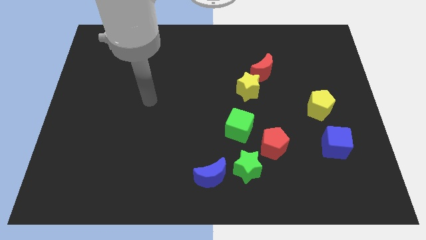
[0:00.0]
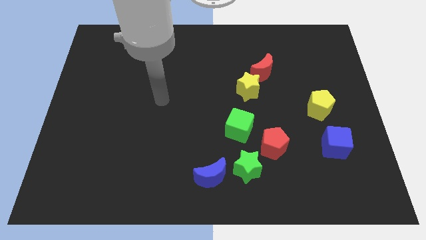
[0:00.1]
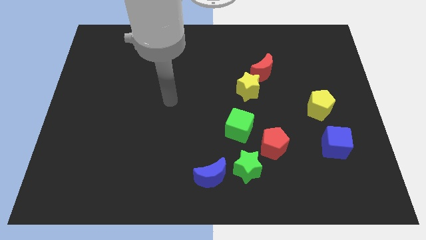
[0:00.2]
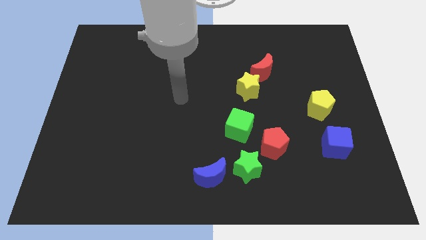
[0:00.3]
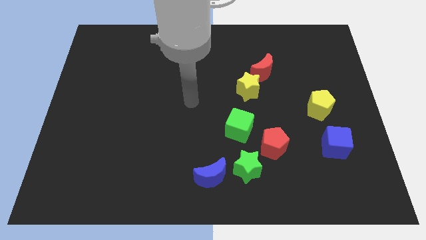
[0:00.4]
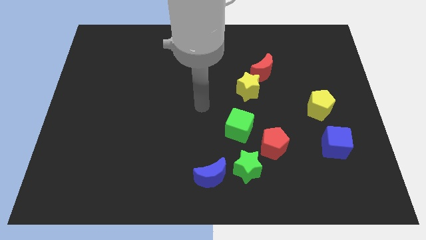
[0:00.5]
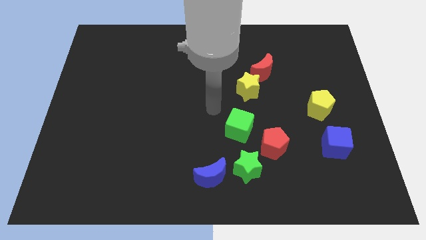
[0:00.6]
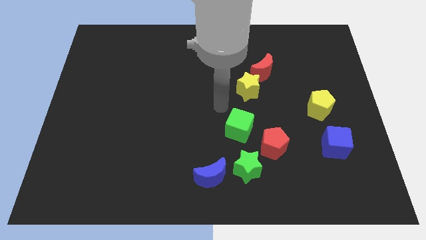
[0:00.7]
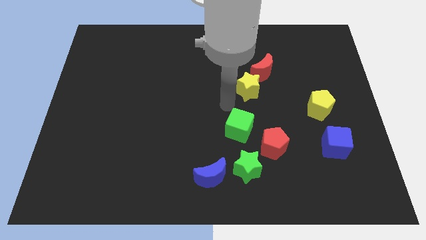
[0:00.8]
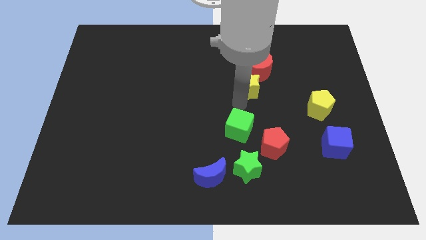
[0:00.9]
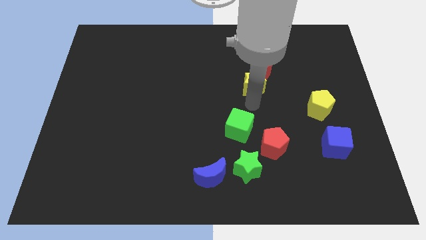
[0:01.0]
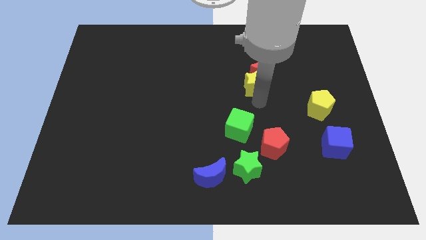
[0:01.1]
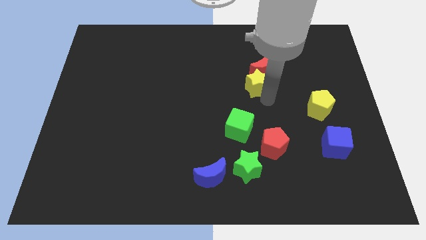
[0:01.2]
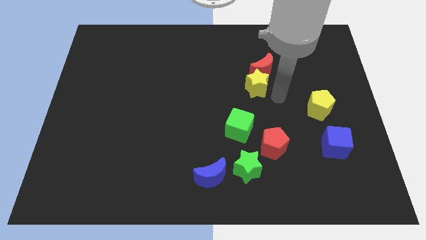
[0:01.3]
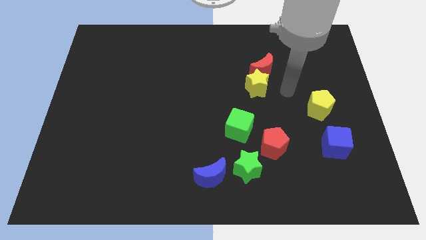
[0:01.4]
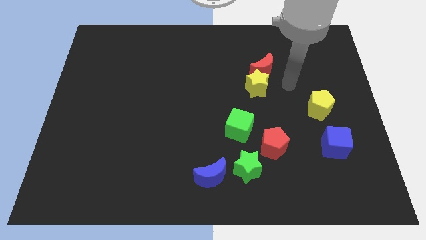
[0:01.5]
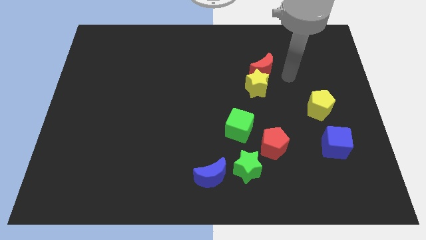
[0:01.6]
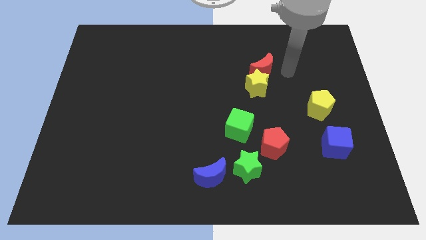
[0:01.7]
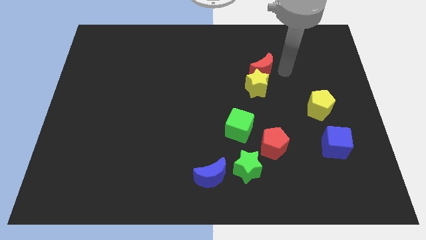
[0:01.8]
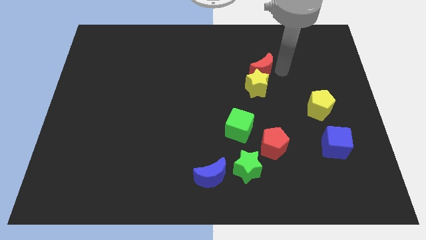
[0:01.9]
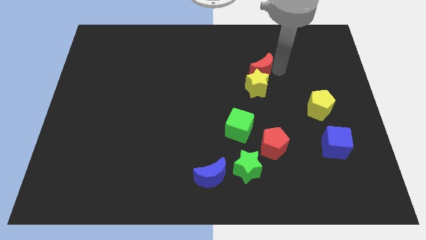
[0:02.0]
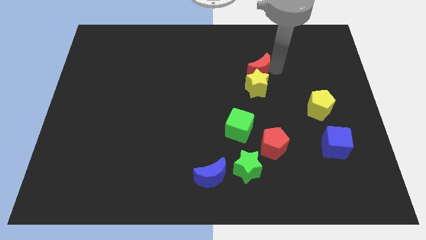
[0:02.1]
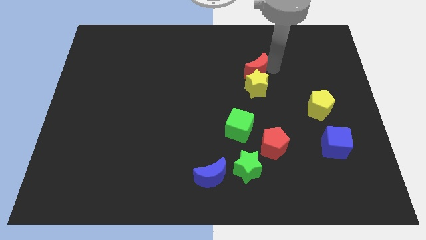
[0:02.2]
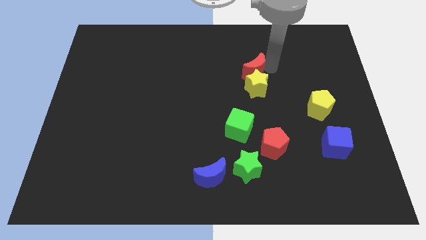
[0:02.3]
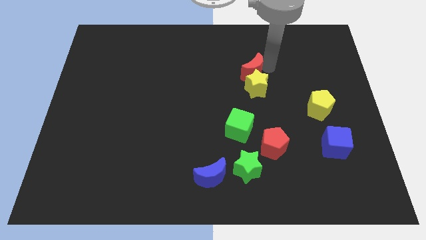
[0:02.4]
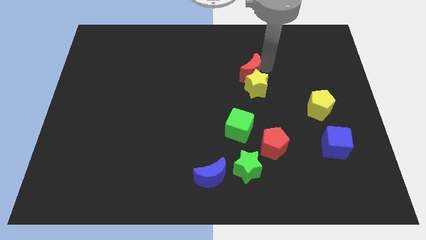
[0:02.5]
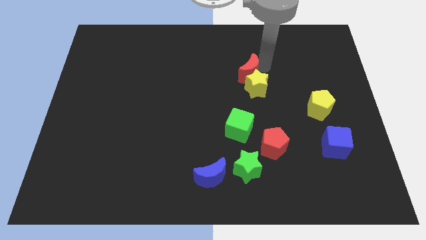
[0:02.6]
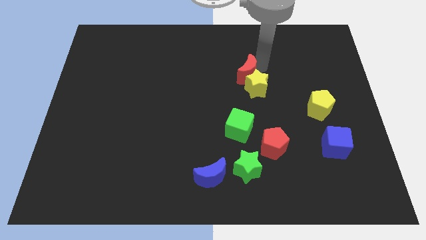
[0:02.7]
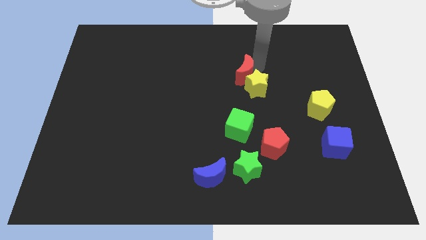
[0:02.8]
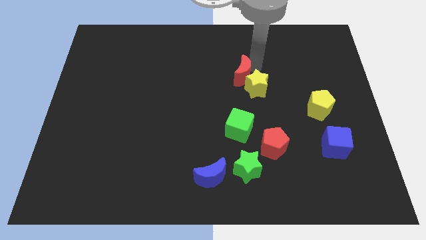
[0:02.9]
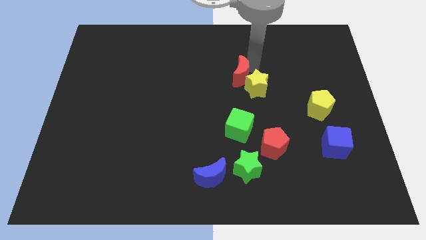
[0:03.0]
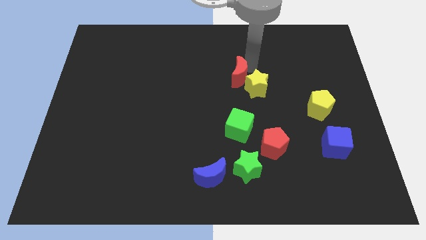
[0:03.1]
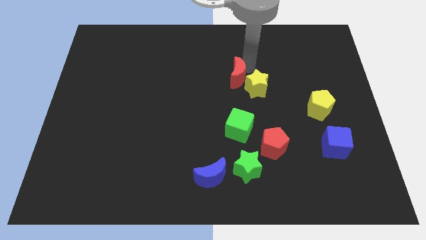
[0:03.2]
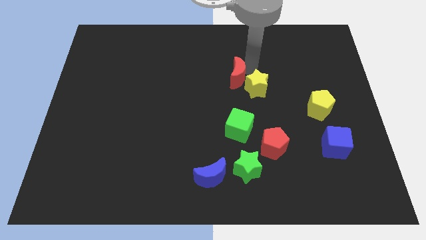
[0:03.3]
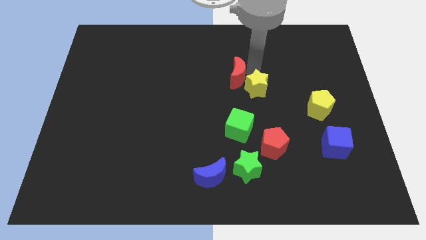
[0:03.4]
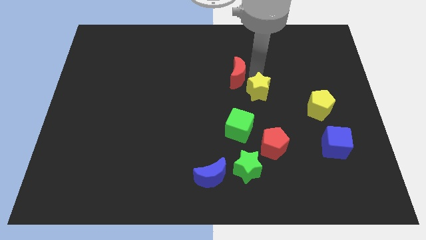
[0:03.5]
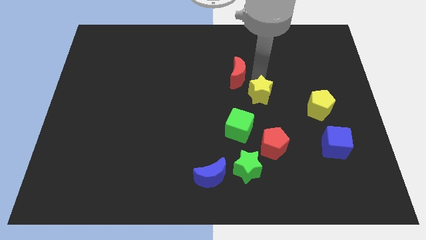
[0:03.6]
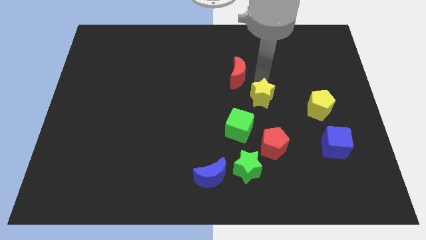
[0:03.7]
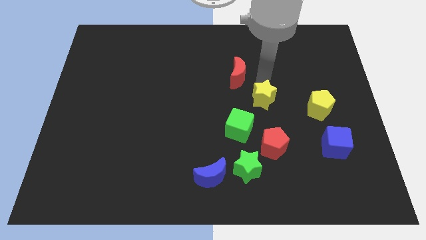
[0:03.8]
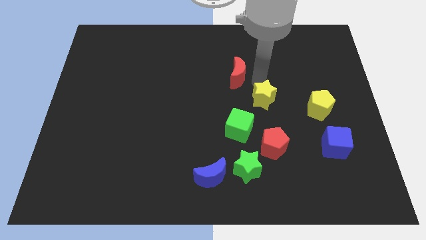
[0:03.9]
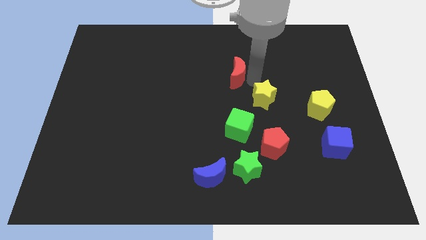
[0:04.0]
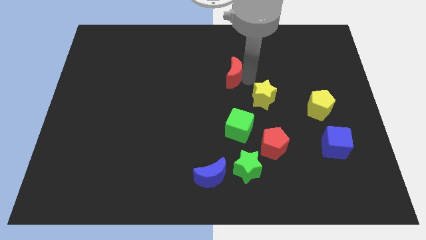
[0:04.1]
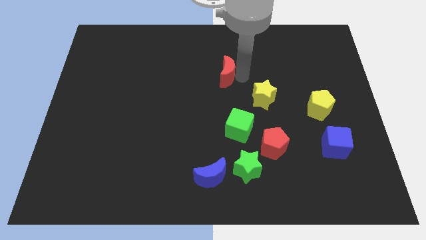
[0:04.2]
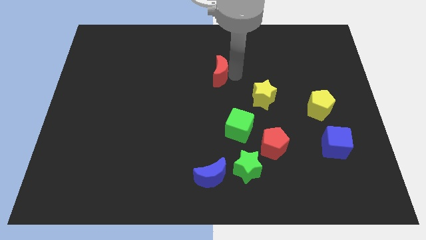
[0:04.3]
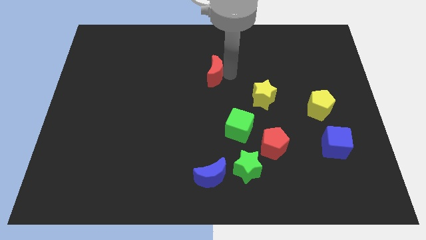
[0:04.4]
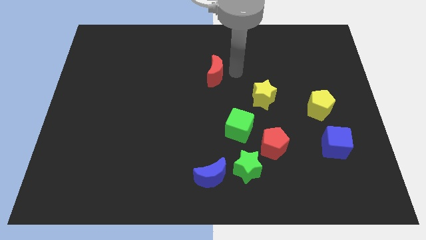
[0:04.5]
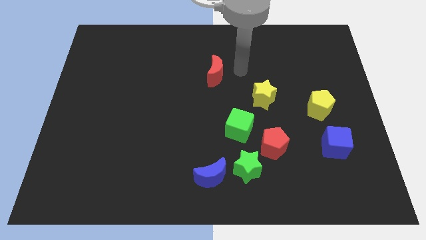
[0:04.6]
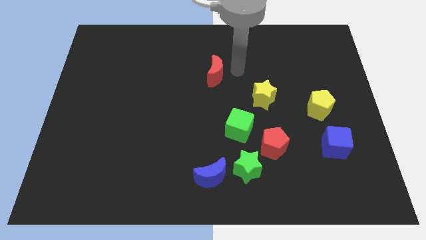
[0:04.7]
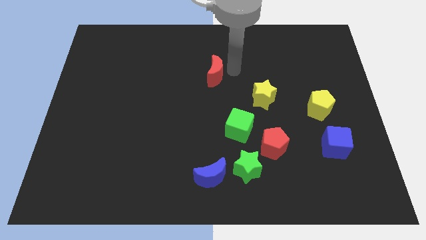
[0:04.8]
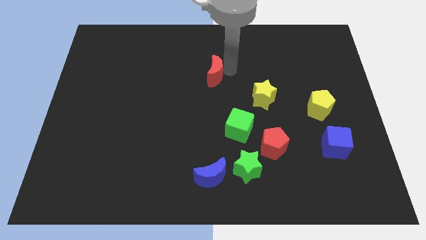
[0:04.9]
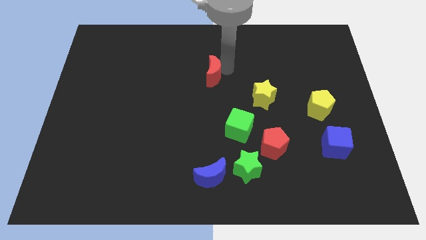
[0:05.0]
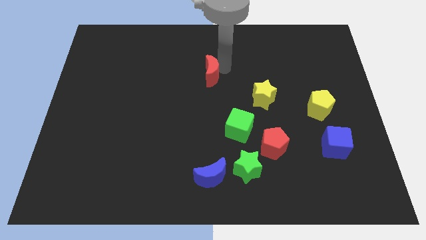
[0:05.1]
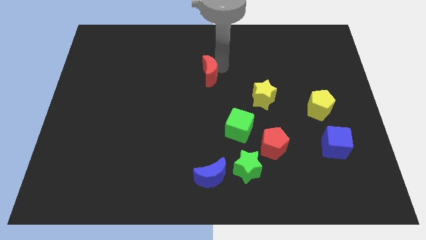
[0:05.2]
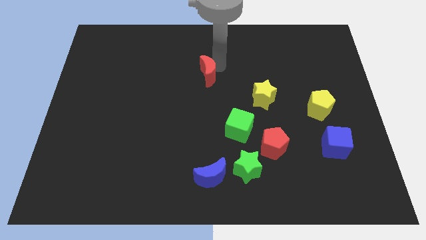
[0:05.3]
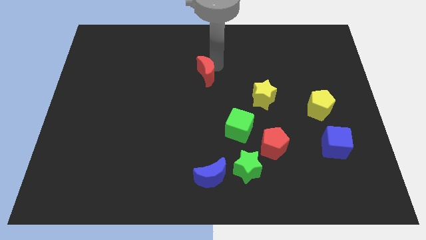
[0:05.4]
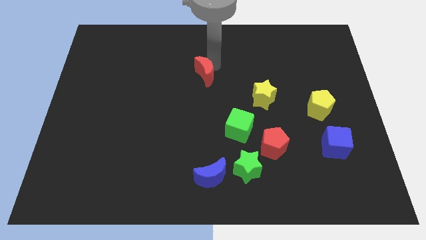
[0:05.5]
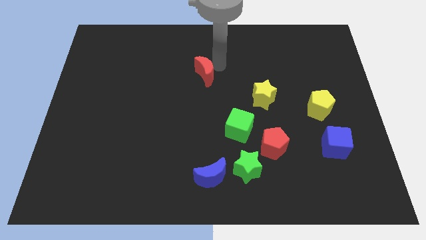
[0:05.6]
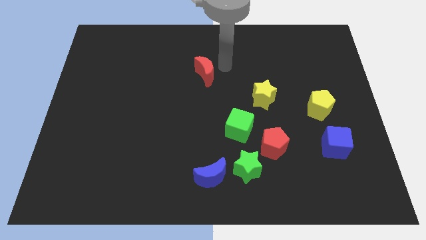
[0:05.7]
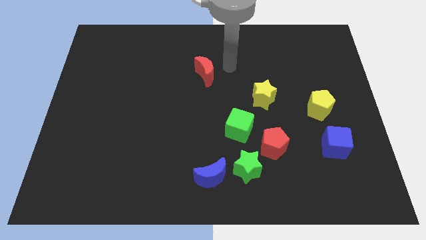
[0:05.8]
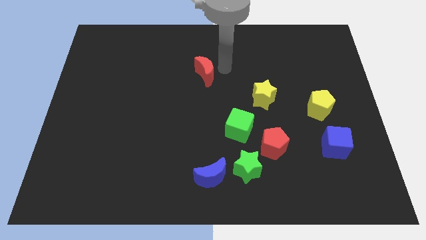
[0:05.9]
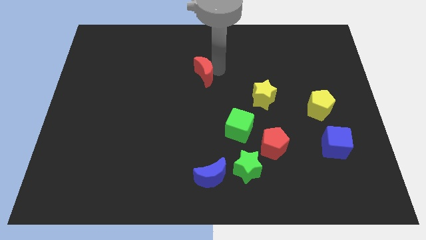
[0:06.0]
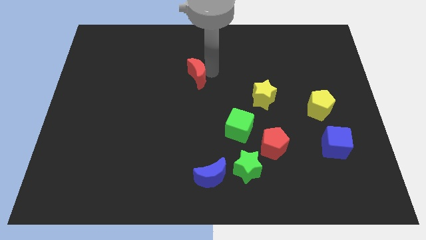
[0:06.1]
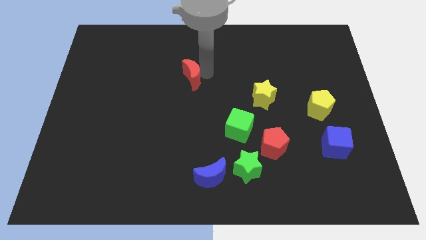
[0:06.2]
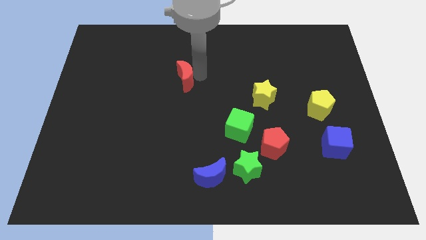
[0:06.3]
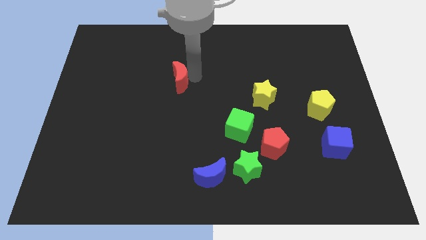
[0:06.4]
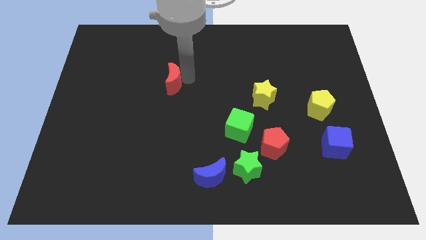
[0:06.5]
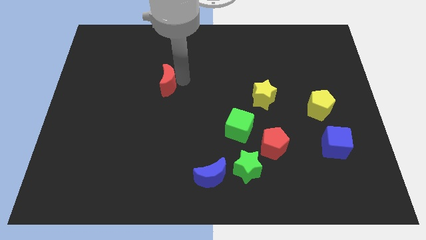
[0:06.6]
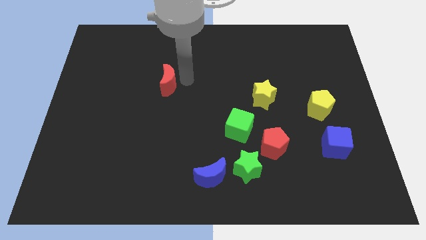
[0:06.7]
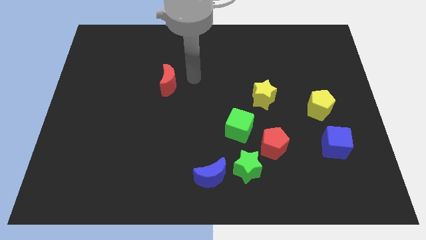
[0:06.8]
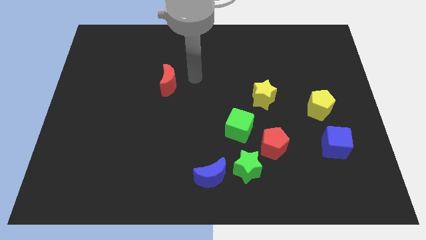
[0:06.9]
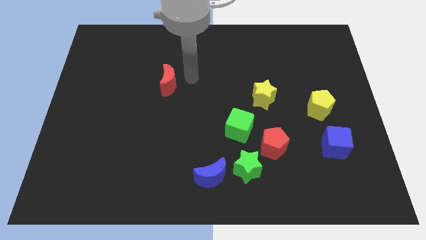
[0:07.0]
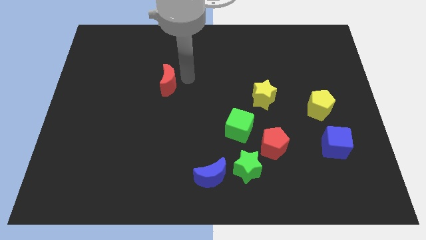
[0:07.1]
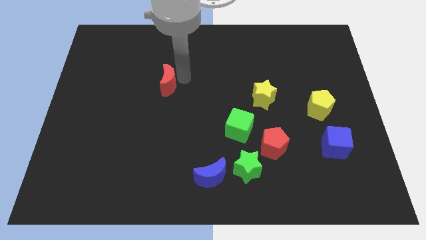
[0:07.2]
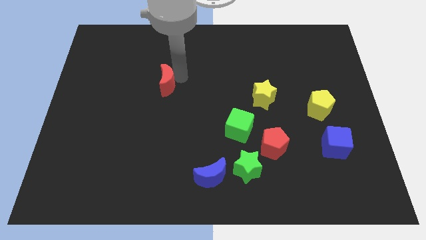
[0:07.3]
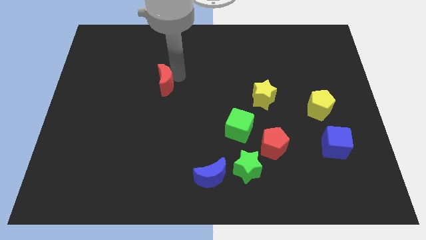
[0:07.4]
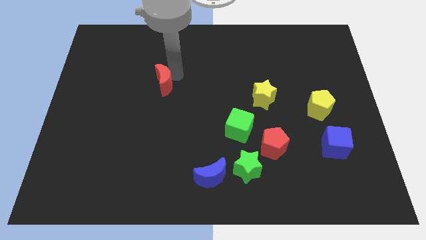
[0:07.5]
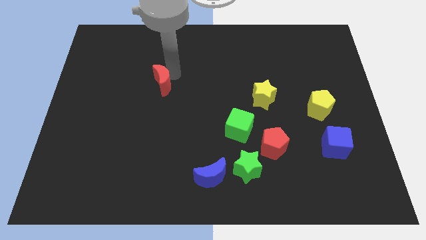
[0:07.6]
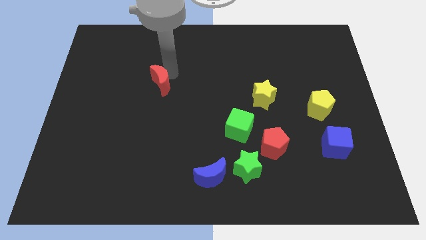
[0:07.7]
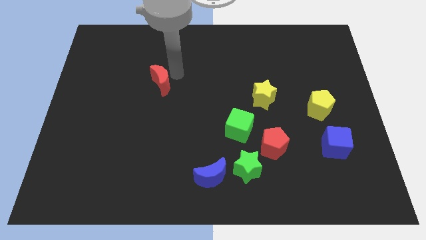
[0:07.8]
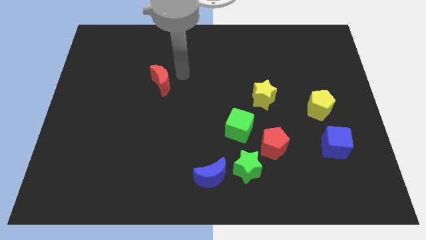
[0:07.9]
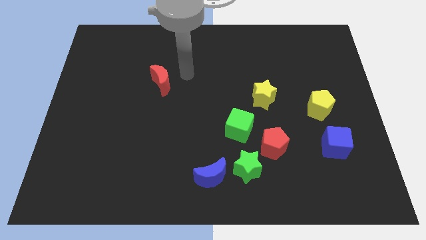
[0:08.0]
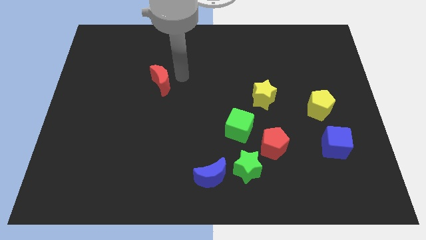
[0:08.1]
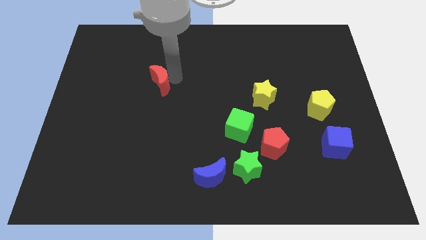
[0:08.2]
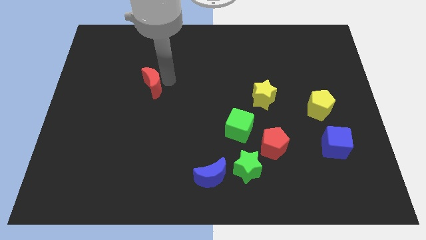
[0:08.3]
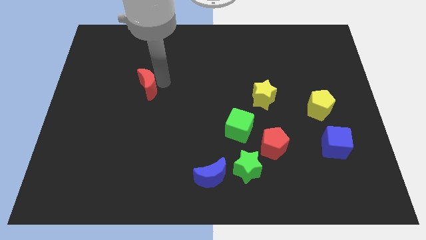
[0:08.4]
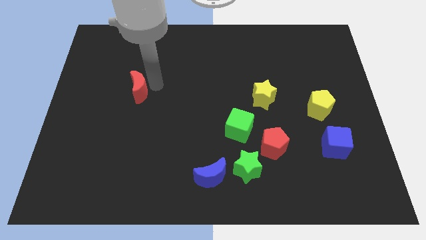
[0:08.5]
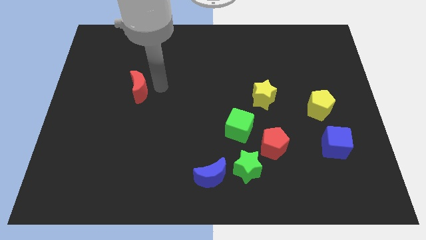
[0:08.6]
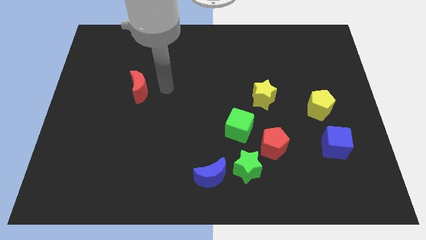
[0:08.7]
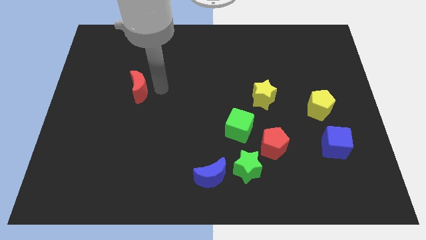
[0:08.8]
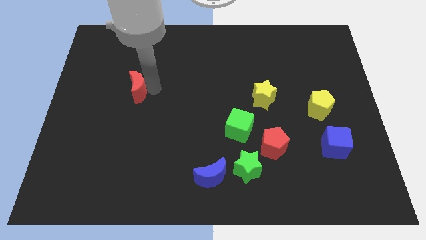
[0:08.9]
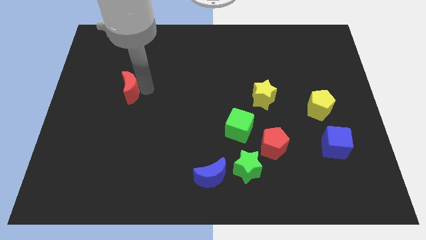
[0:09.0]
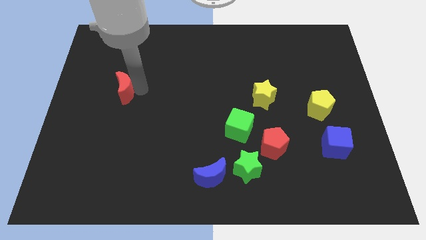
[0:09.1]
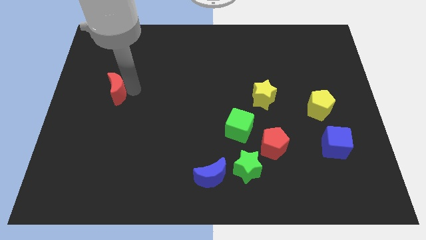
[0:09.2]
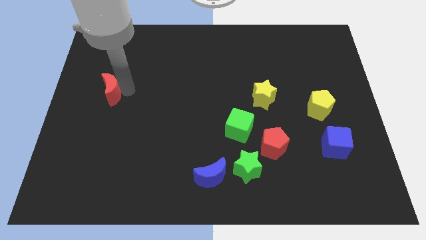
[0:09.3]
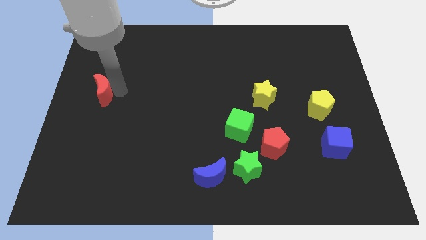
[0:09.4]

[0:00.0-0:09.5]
put the red moon to the left side of the board
